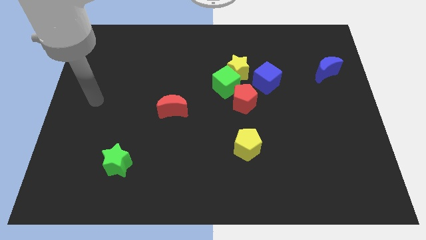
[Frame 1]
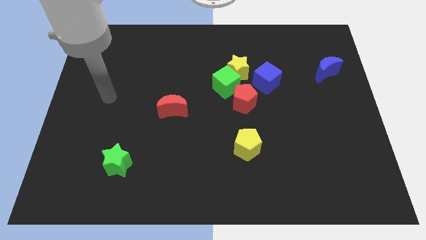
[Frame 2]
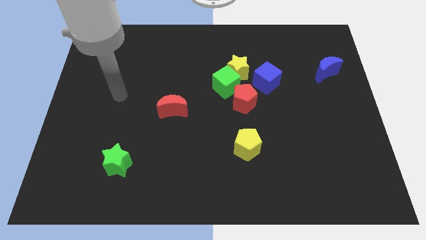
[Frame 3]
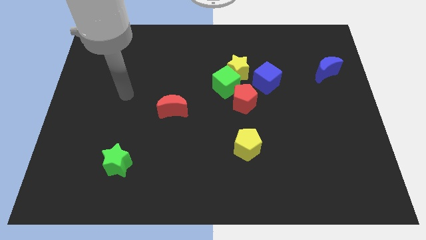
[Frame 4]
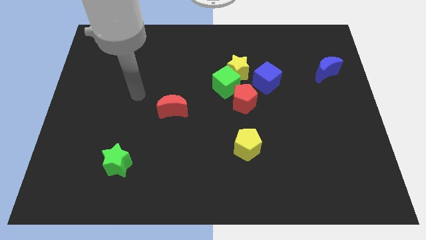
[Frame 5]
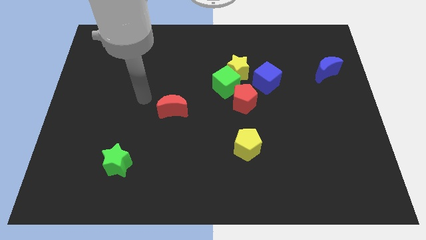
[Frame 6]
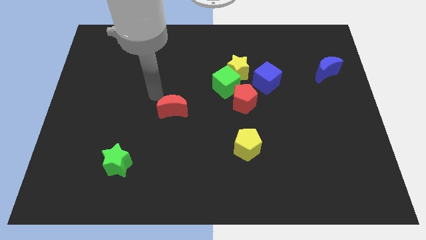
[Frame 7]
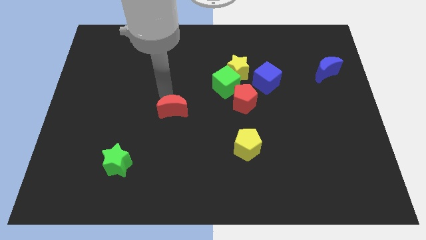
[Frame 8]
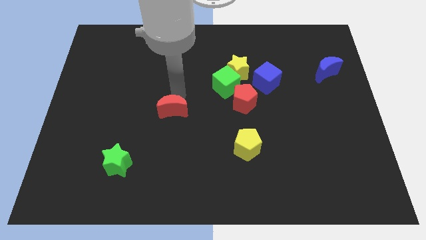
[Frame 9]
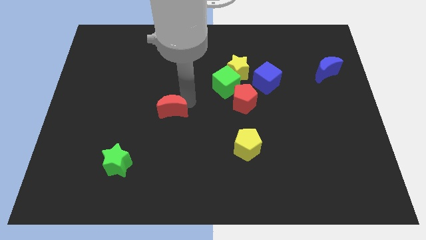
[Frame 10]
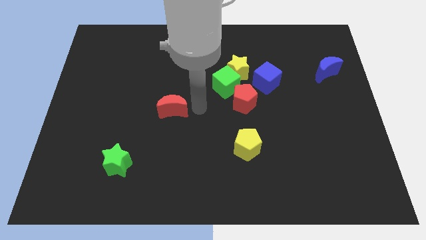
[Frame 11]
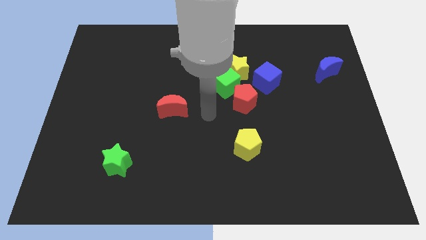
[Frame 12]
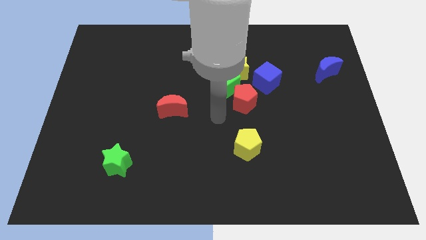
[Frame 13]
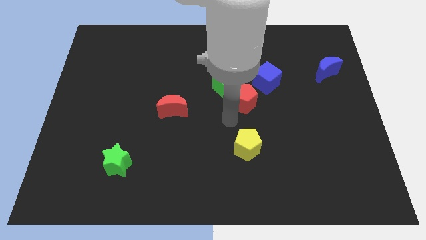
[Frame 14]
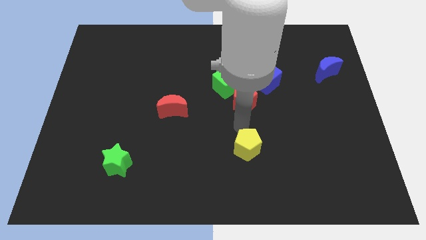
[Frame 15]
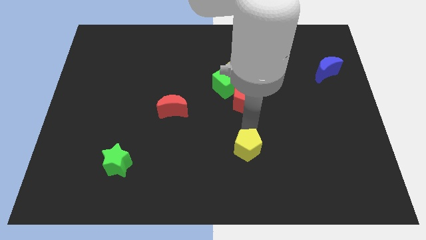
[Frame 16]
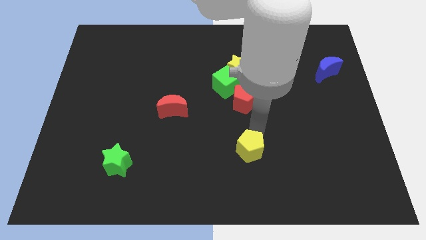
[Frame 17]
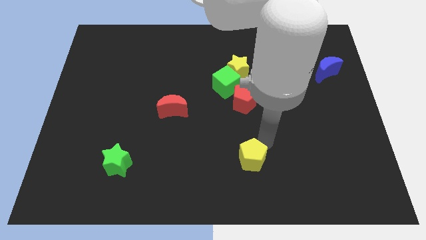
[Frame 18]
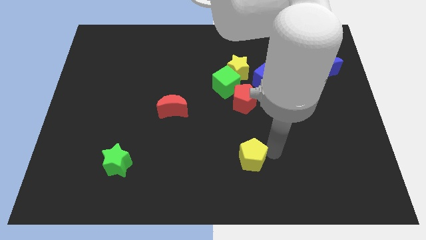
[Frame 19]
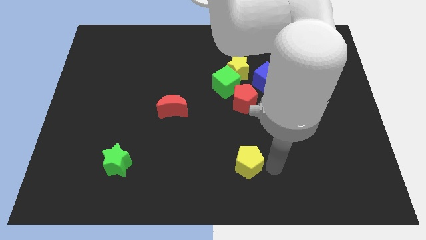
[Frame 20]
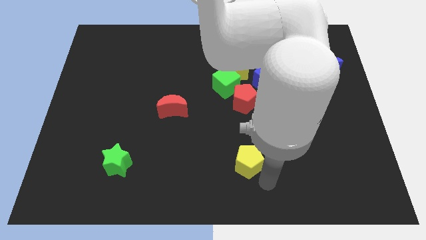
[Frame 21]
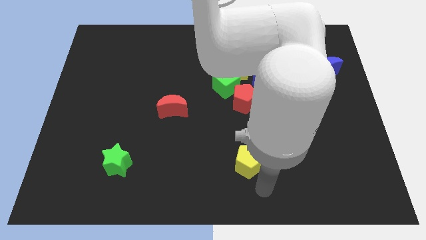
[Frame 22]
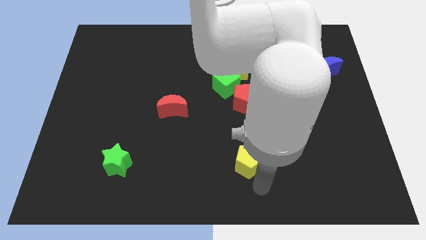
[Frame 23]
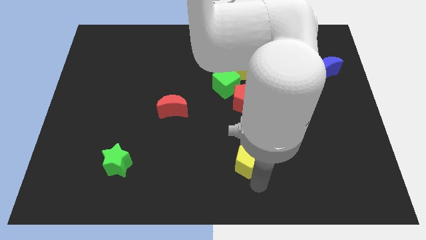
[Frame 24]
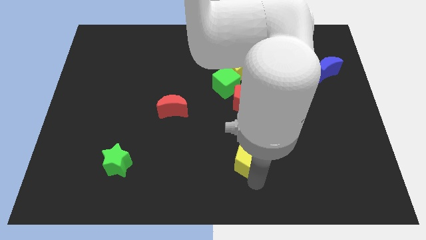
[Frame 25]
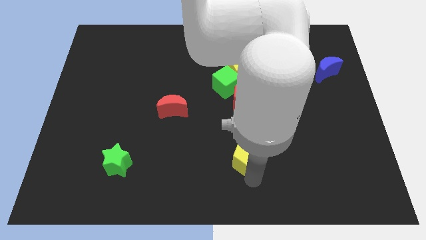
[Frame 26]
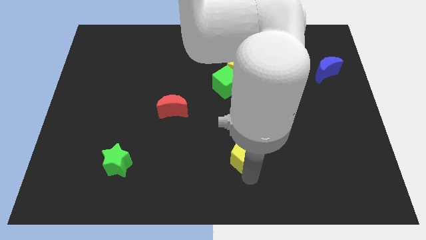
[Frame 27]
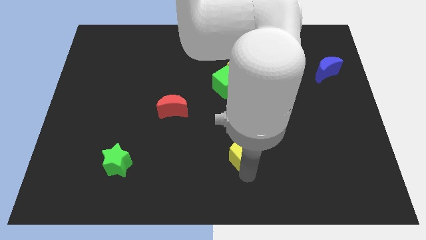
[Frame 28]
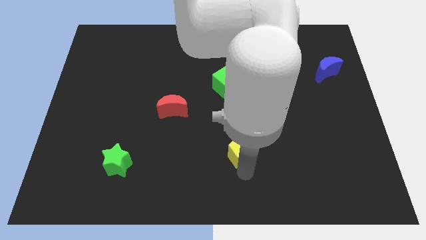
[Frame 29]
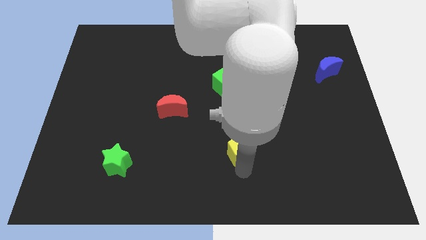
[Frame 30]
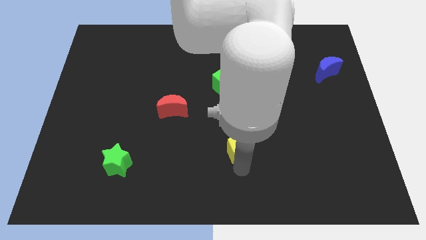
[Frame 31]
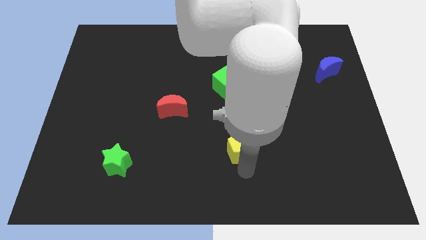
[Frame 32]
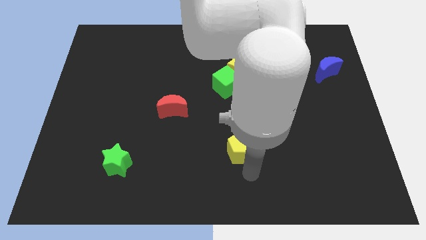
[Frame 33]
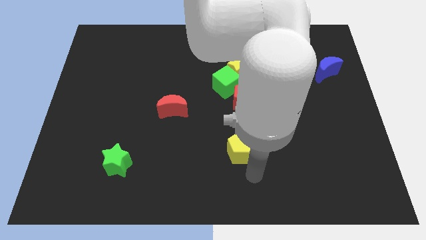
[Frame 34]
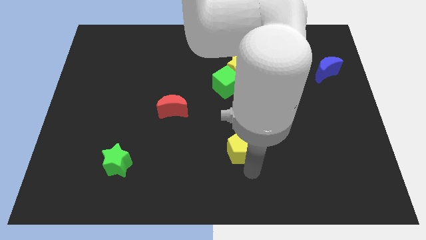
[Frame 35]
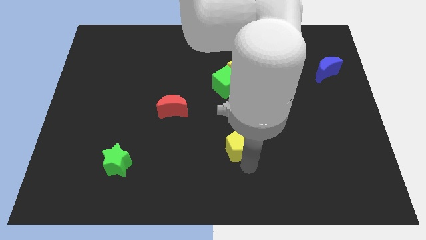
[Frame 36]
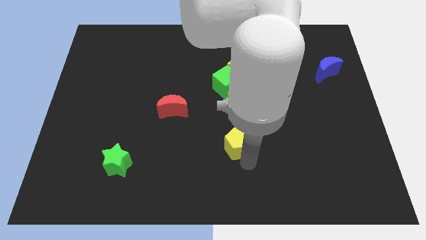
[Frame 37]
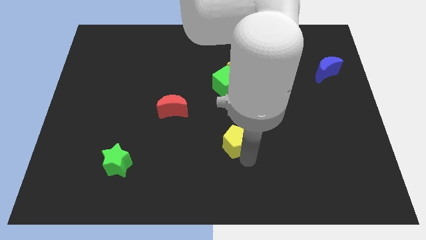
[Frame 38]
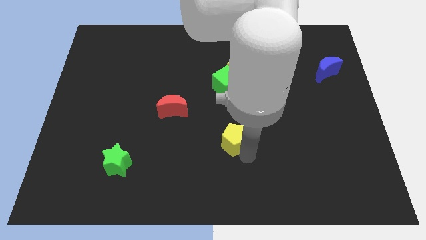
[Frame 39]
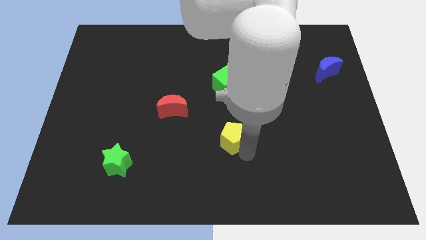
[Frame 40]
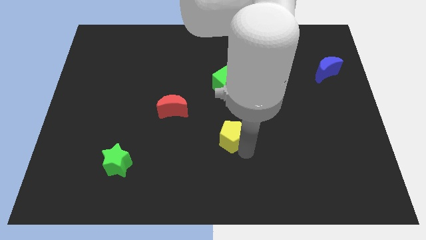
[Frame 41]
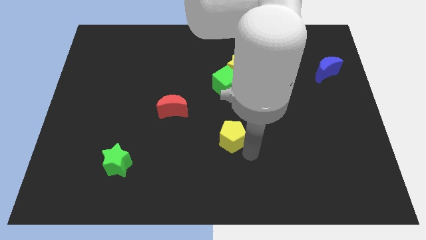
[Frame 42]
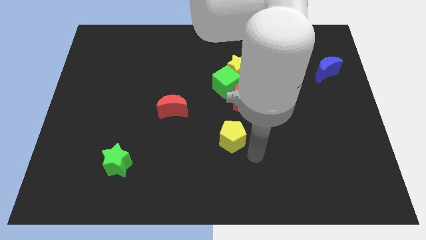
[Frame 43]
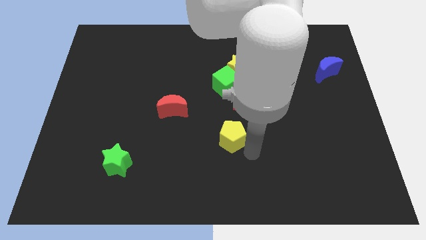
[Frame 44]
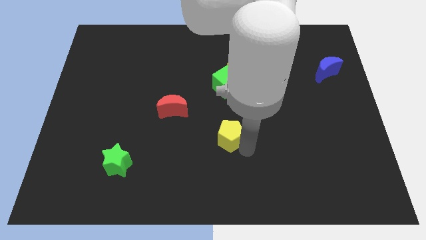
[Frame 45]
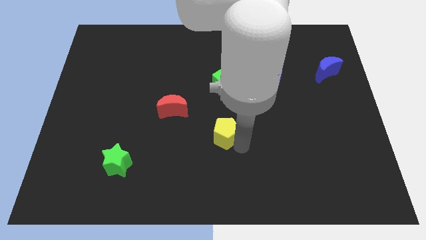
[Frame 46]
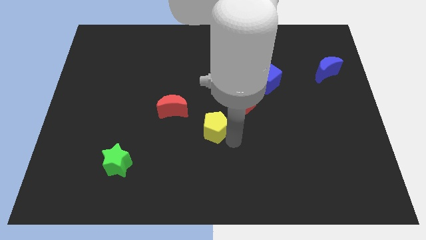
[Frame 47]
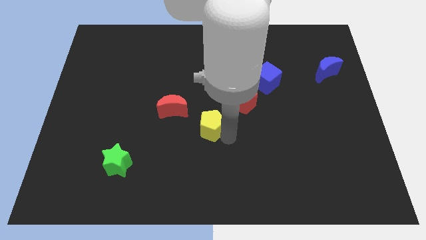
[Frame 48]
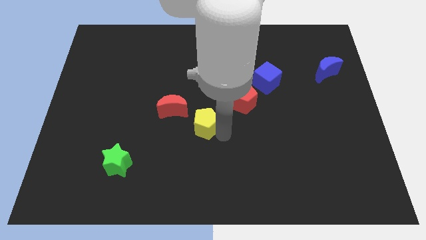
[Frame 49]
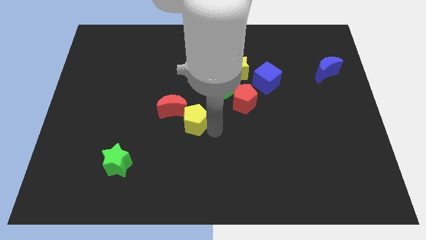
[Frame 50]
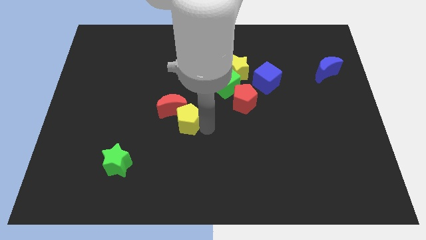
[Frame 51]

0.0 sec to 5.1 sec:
put the yellow pentagon to the red moon

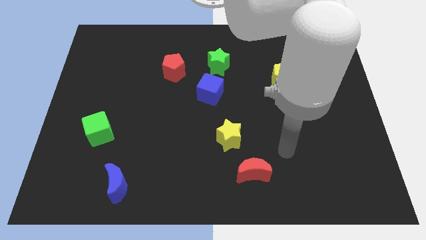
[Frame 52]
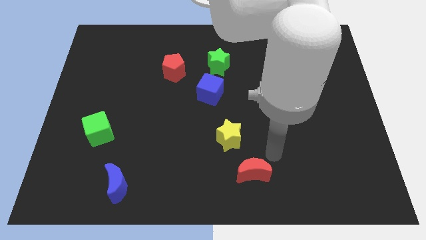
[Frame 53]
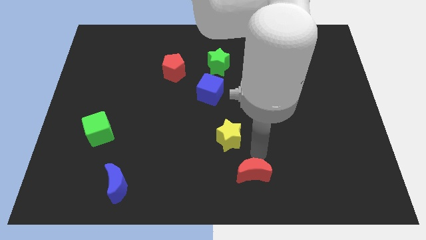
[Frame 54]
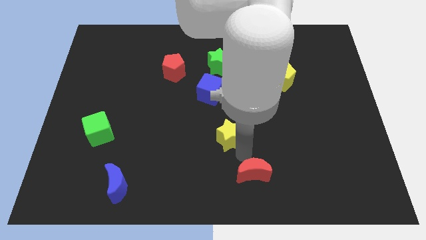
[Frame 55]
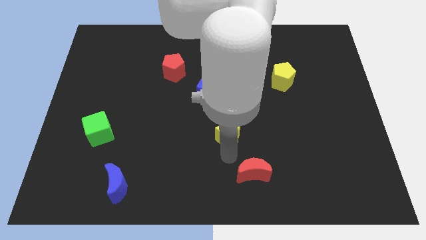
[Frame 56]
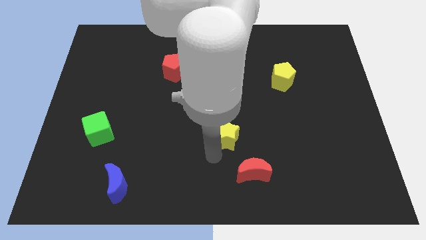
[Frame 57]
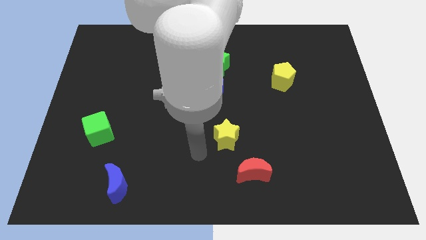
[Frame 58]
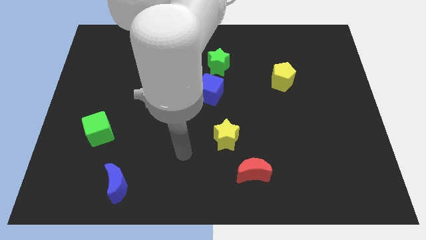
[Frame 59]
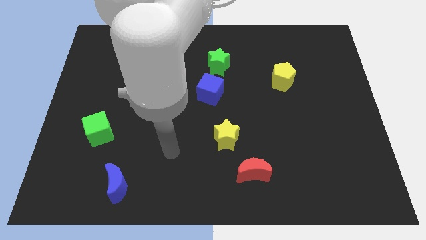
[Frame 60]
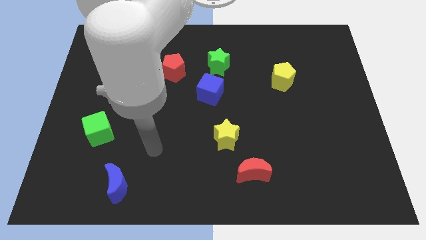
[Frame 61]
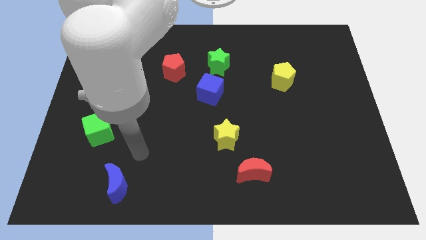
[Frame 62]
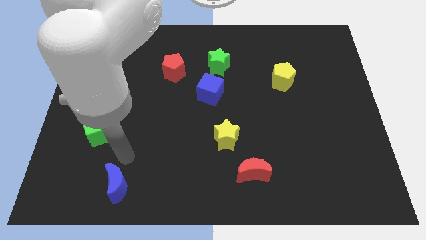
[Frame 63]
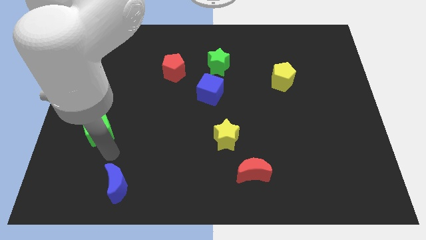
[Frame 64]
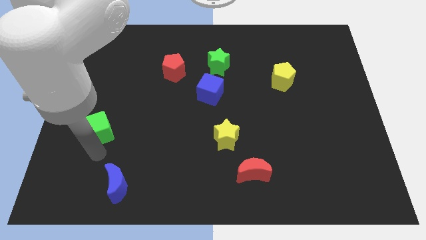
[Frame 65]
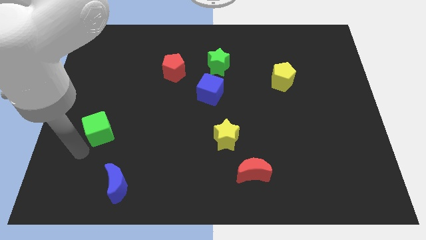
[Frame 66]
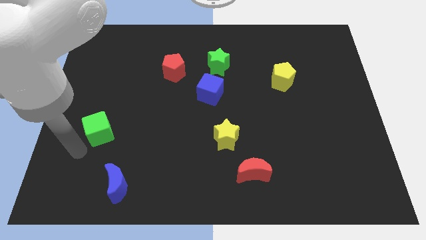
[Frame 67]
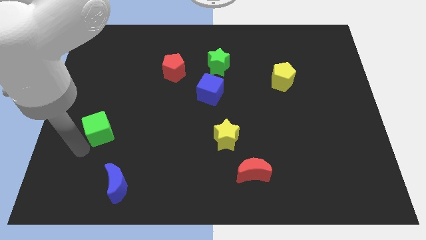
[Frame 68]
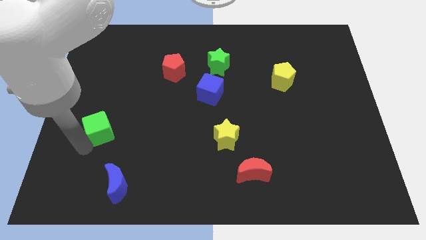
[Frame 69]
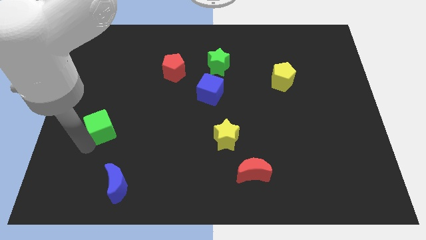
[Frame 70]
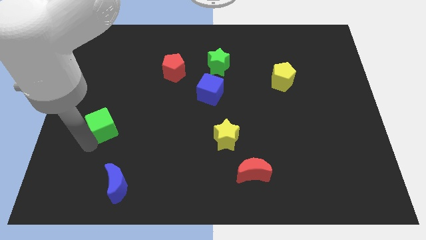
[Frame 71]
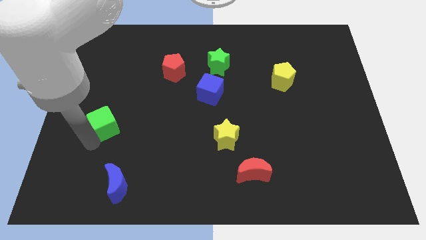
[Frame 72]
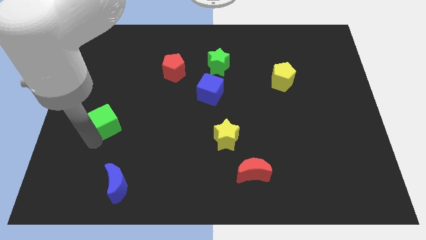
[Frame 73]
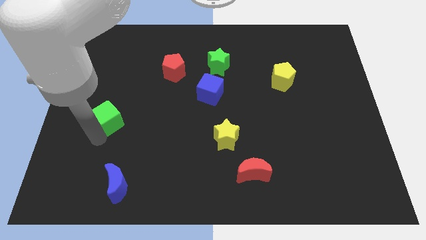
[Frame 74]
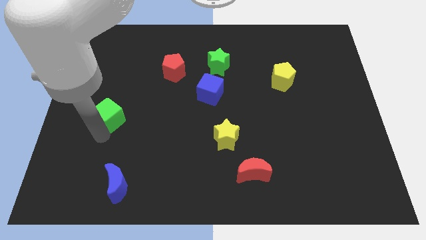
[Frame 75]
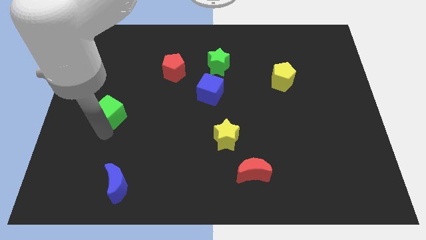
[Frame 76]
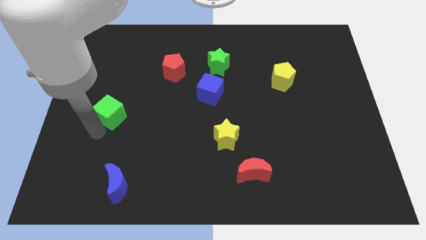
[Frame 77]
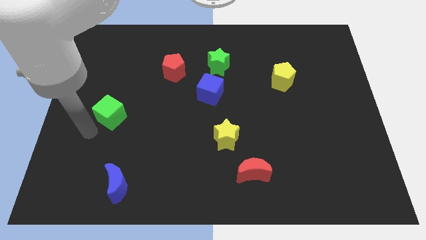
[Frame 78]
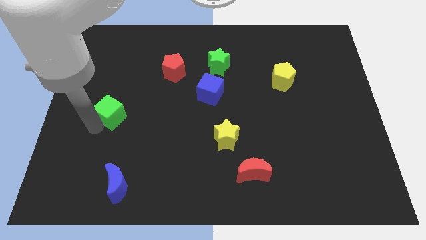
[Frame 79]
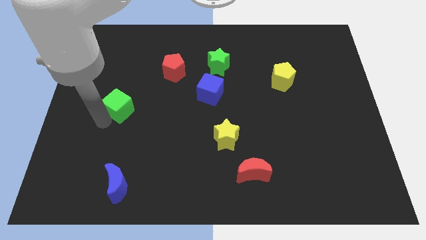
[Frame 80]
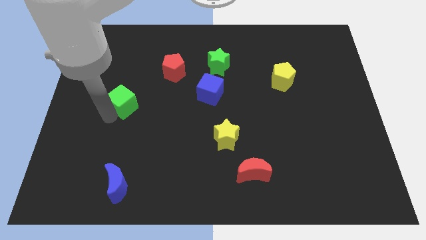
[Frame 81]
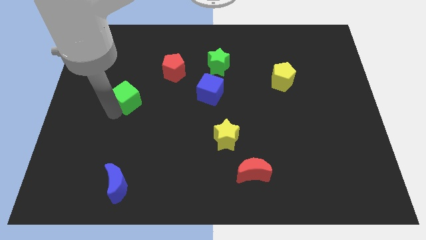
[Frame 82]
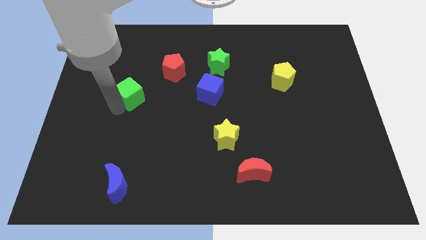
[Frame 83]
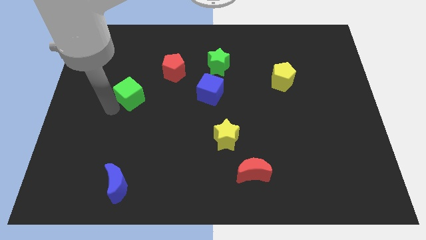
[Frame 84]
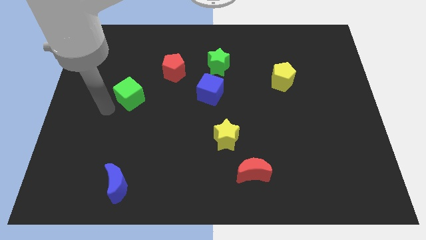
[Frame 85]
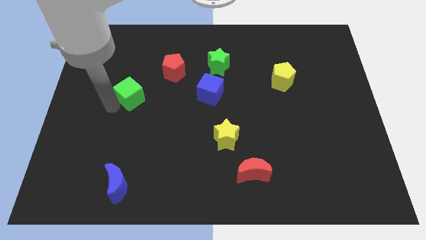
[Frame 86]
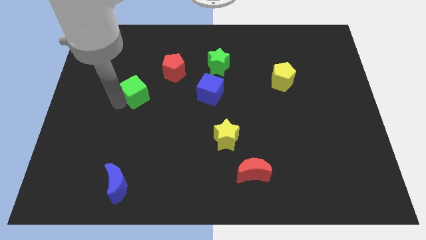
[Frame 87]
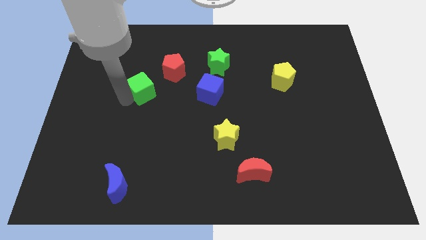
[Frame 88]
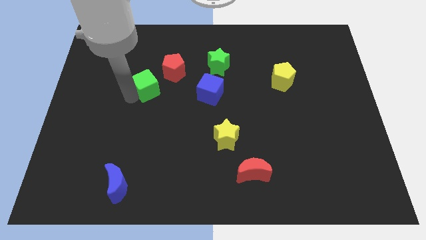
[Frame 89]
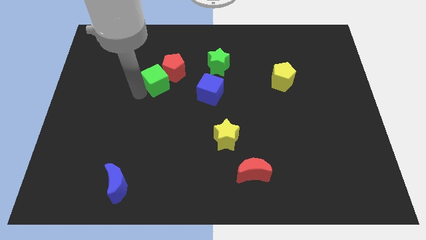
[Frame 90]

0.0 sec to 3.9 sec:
put the green cube to the red pentagon
